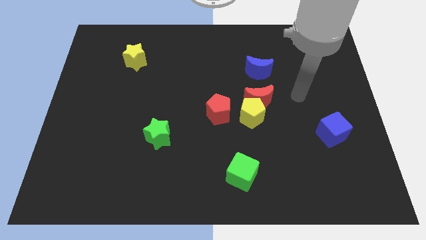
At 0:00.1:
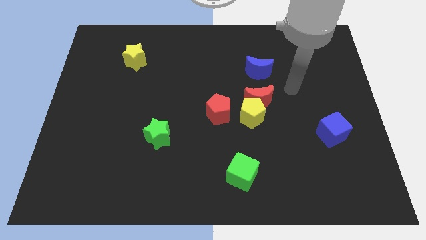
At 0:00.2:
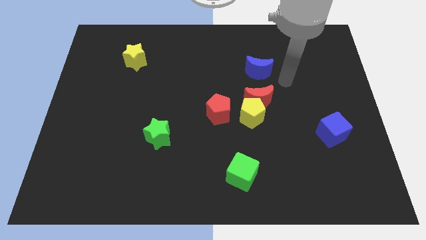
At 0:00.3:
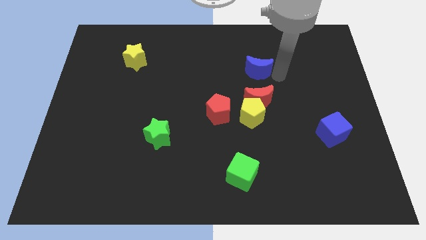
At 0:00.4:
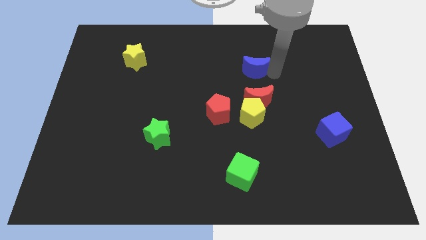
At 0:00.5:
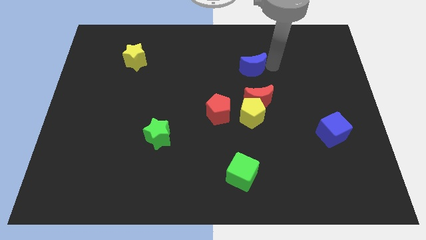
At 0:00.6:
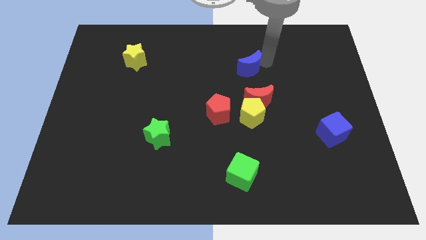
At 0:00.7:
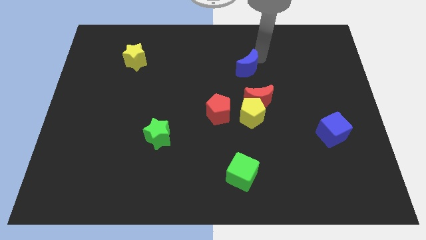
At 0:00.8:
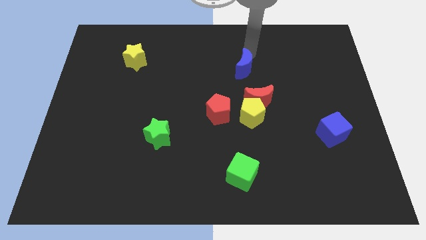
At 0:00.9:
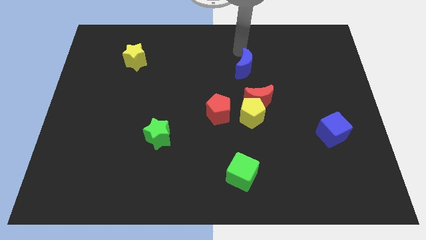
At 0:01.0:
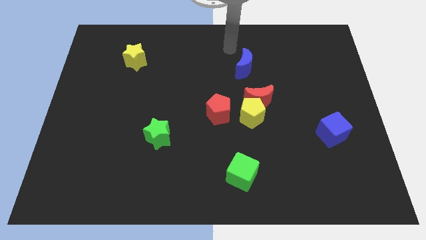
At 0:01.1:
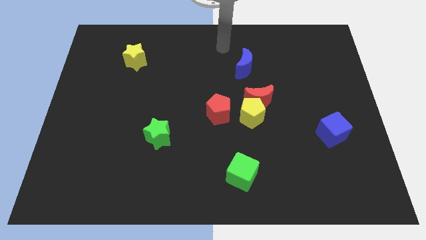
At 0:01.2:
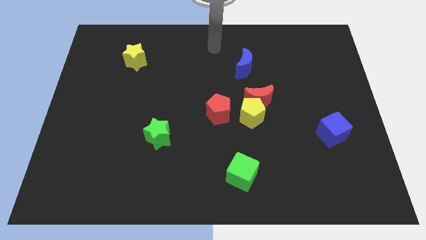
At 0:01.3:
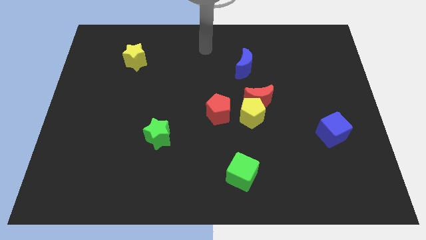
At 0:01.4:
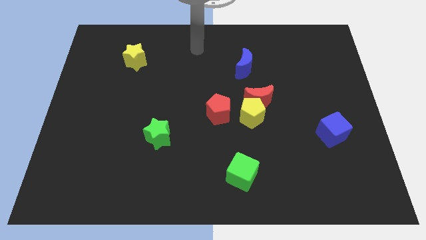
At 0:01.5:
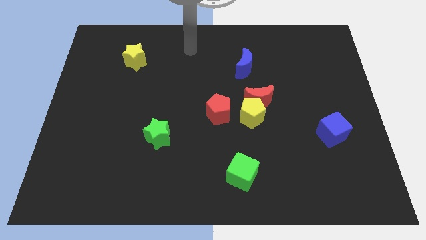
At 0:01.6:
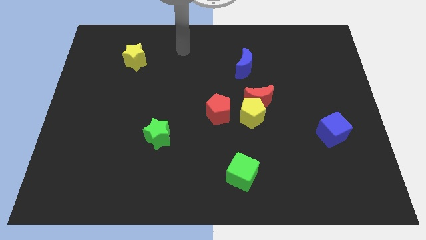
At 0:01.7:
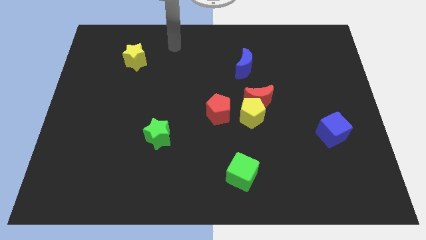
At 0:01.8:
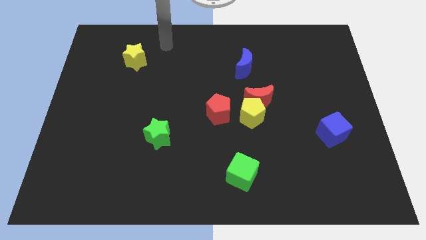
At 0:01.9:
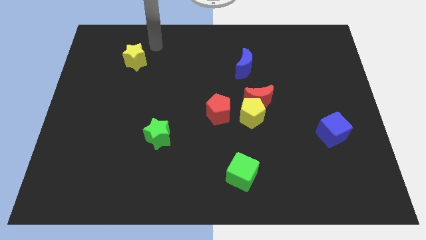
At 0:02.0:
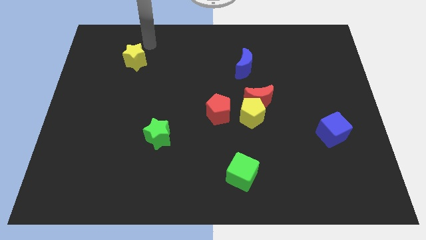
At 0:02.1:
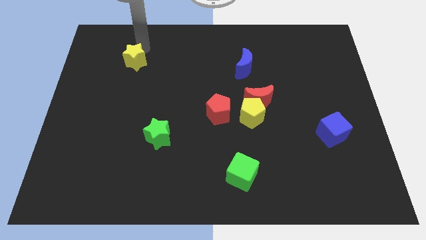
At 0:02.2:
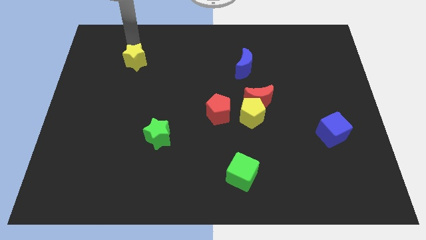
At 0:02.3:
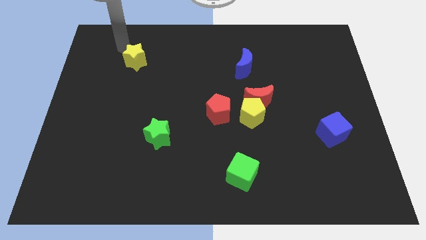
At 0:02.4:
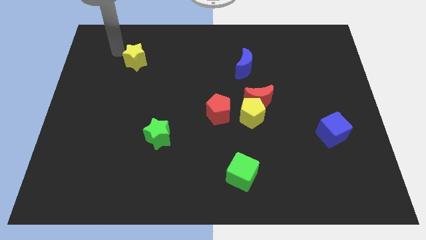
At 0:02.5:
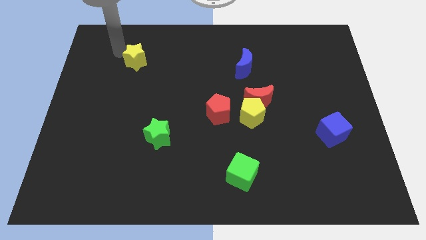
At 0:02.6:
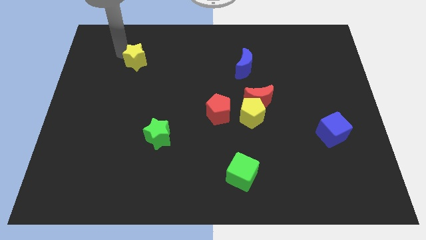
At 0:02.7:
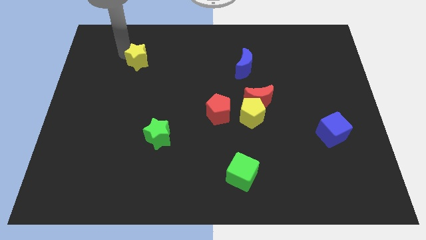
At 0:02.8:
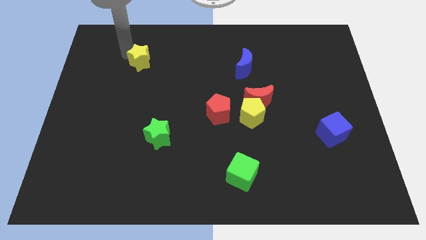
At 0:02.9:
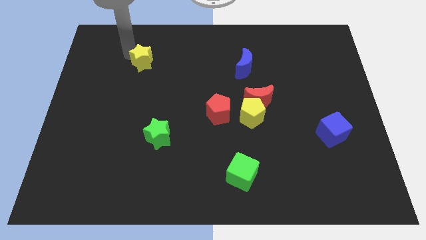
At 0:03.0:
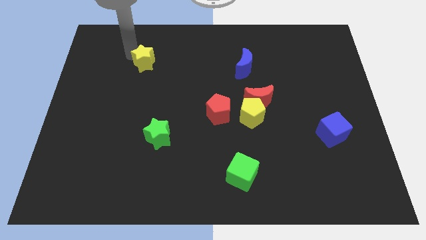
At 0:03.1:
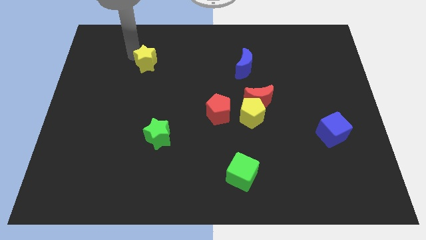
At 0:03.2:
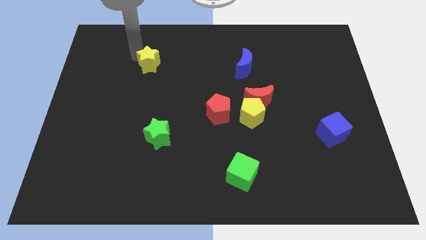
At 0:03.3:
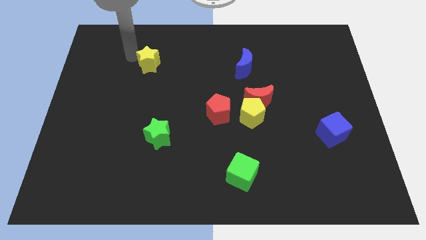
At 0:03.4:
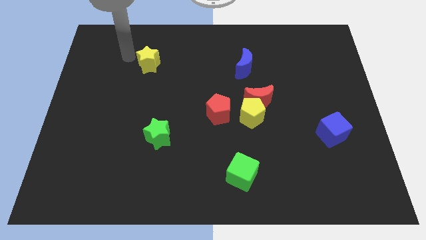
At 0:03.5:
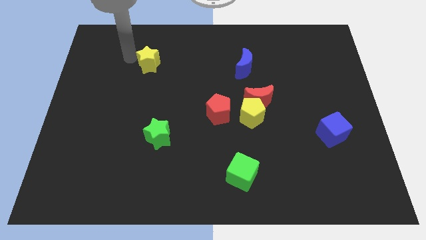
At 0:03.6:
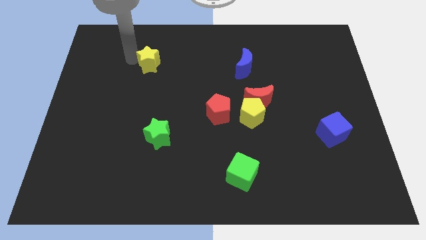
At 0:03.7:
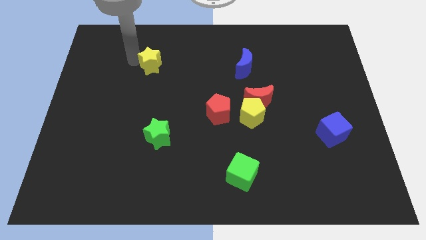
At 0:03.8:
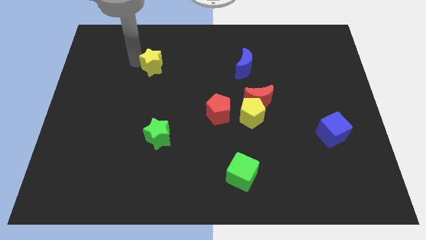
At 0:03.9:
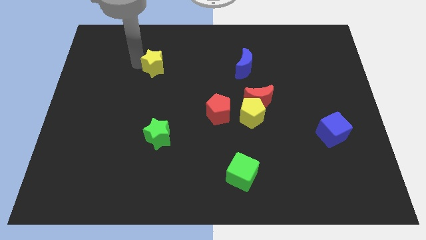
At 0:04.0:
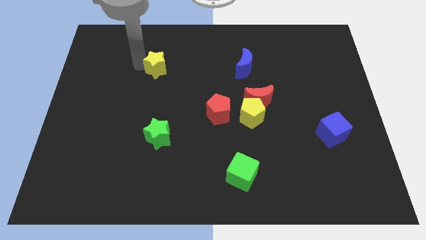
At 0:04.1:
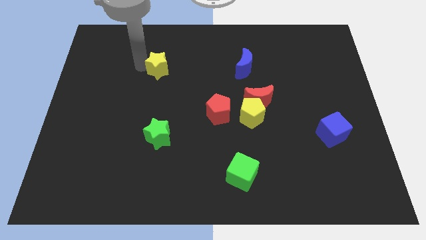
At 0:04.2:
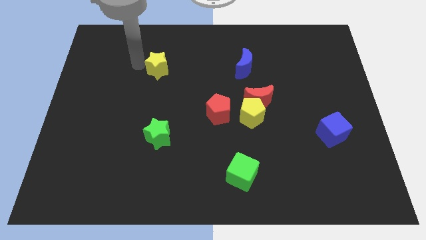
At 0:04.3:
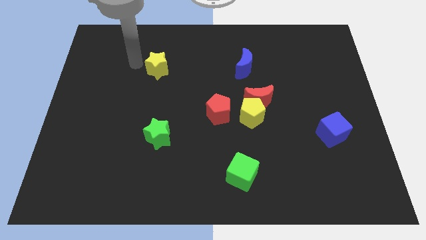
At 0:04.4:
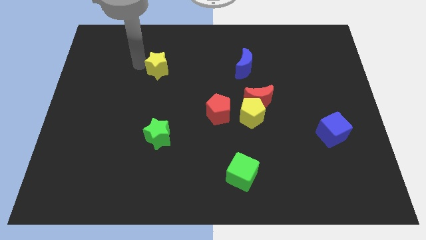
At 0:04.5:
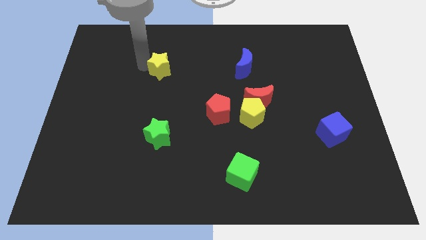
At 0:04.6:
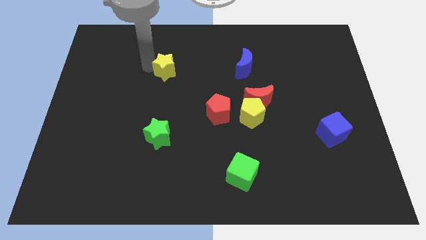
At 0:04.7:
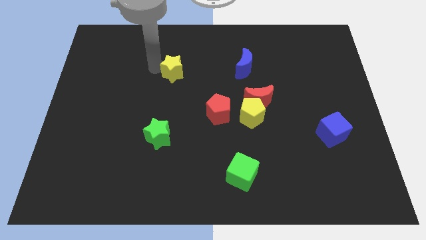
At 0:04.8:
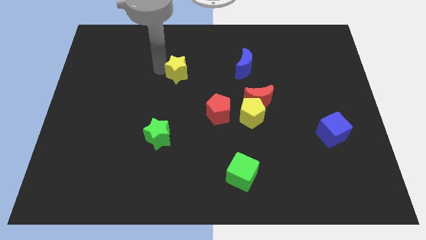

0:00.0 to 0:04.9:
push the yellow star to the center

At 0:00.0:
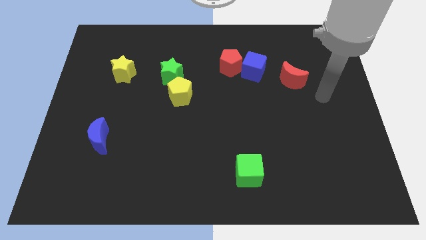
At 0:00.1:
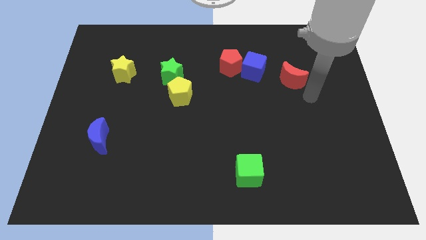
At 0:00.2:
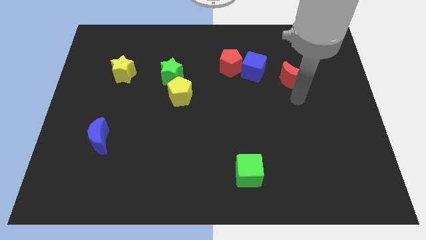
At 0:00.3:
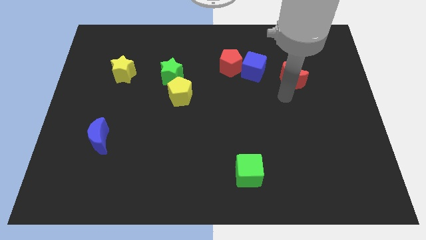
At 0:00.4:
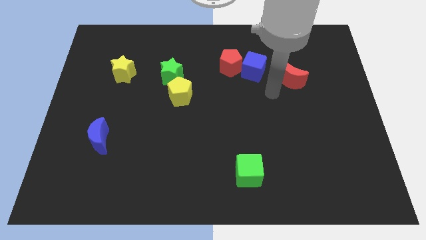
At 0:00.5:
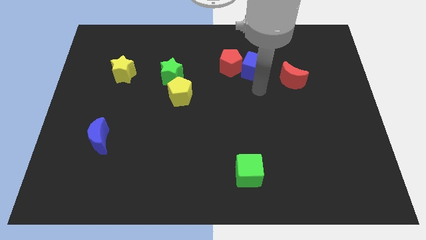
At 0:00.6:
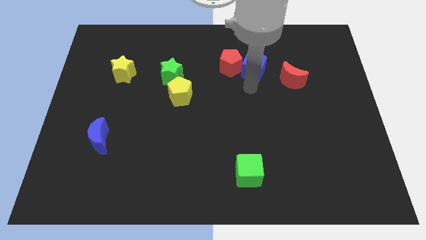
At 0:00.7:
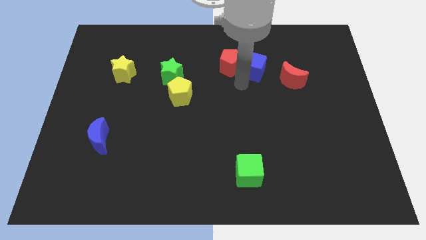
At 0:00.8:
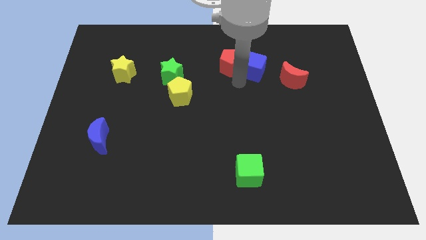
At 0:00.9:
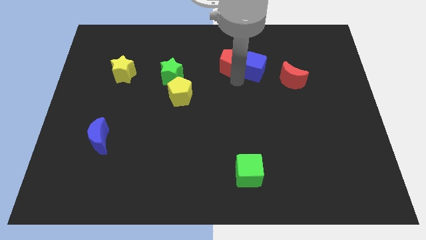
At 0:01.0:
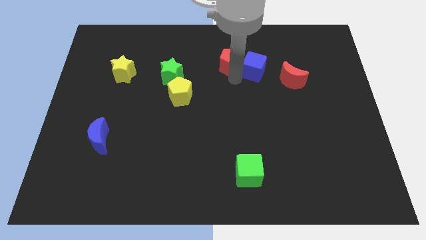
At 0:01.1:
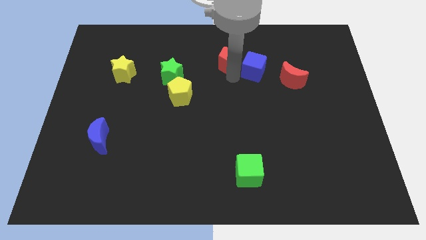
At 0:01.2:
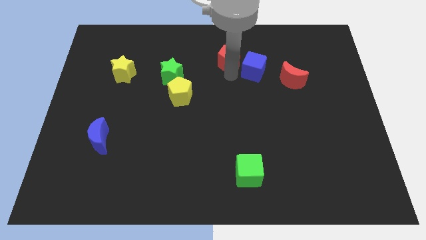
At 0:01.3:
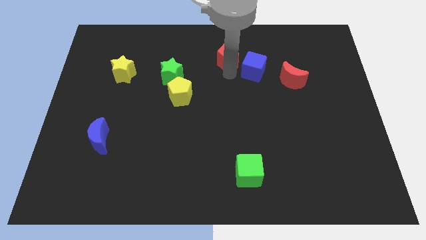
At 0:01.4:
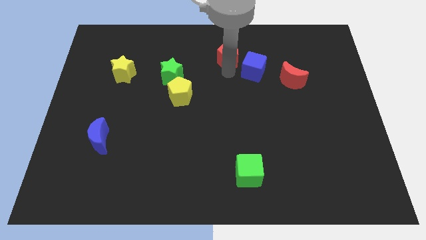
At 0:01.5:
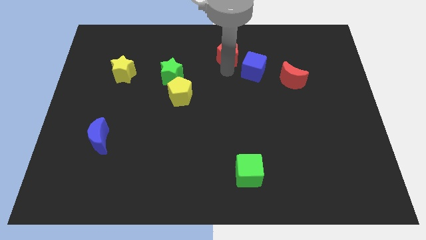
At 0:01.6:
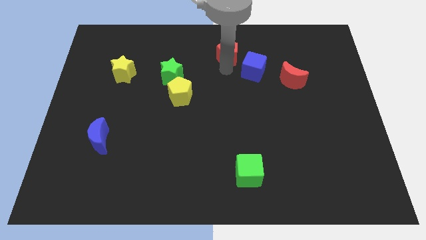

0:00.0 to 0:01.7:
put the red pentagon to the top
